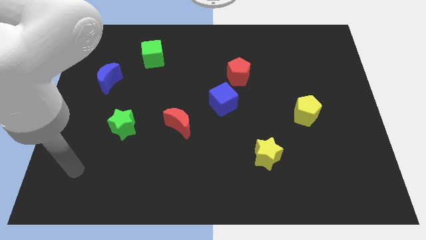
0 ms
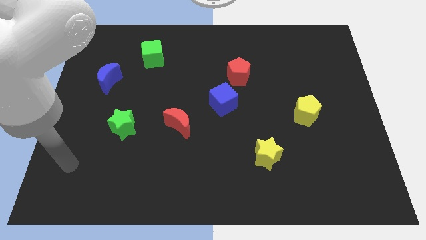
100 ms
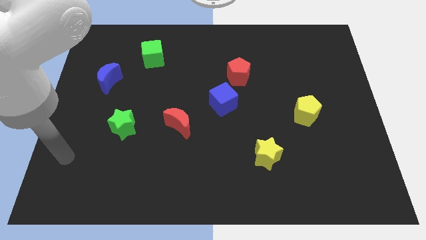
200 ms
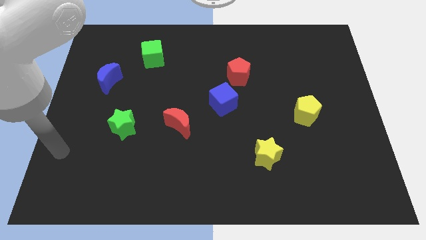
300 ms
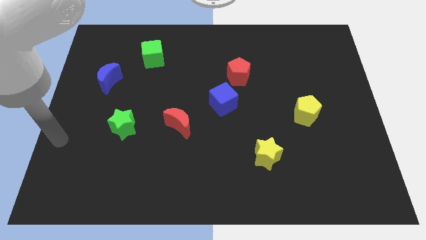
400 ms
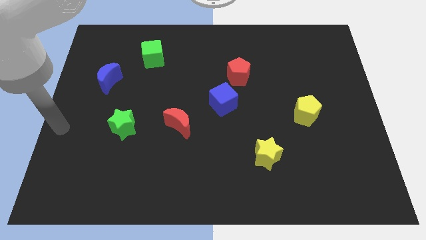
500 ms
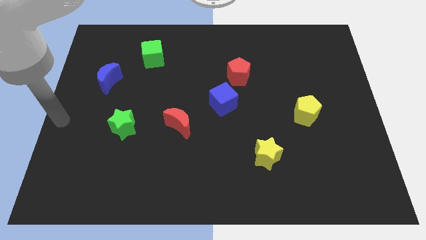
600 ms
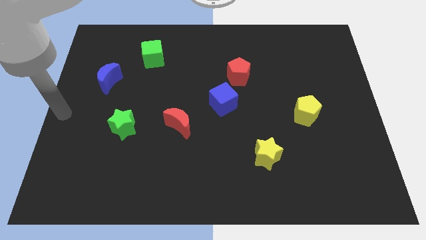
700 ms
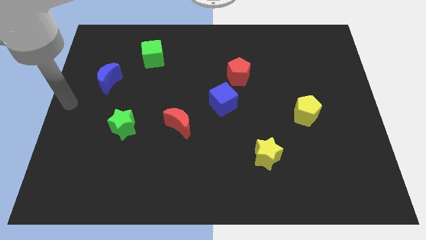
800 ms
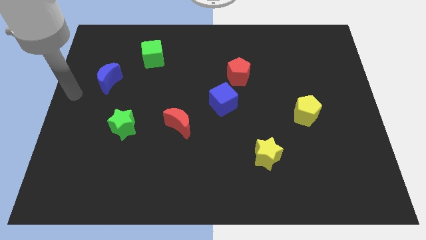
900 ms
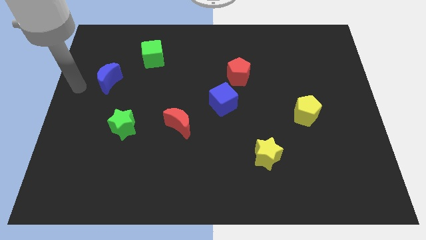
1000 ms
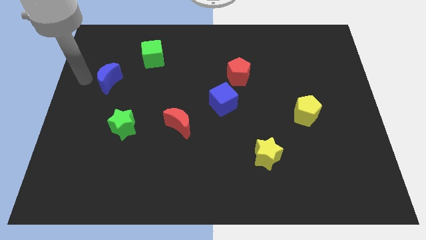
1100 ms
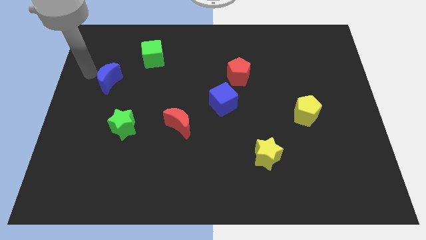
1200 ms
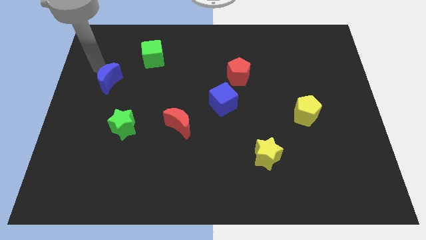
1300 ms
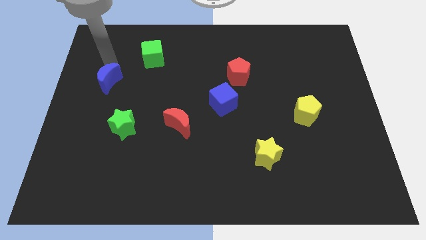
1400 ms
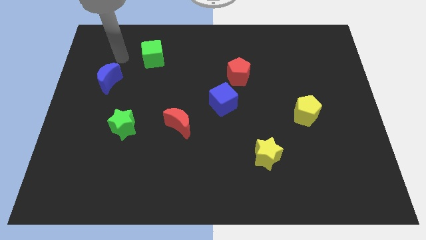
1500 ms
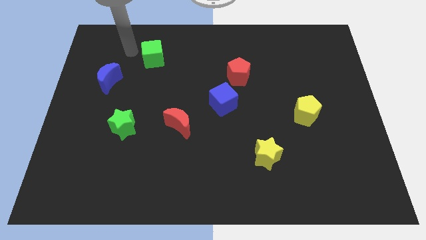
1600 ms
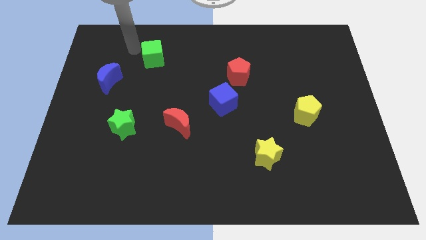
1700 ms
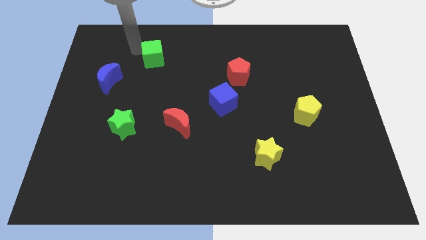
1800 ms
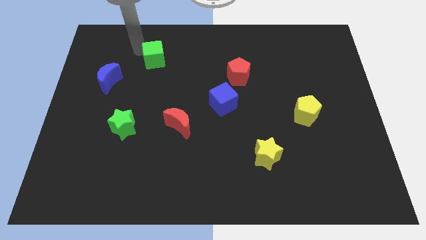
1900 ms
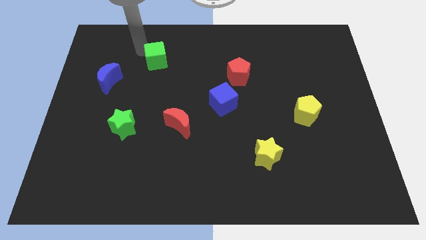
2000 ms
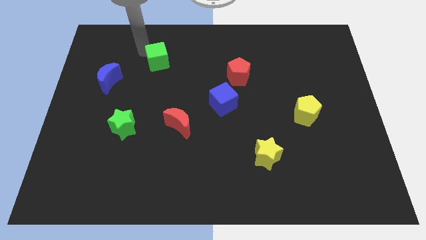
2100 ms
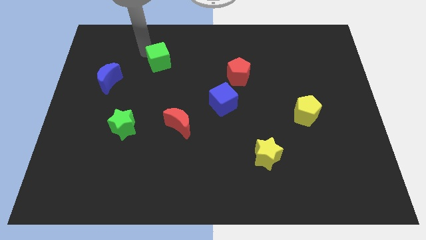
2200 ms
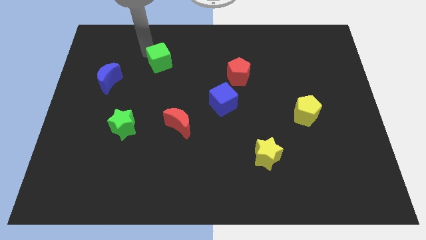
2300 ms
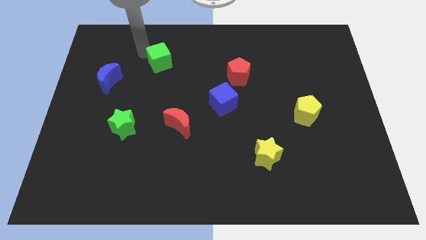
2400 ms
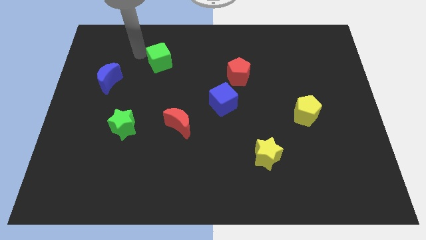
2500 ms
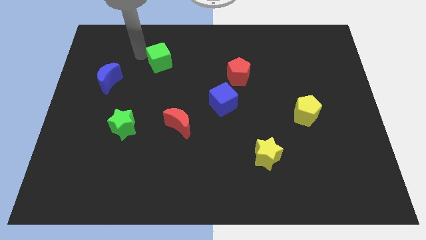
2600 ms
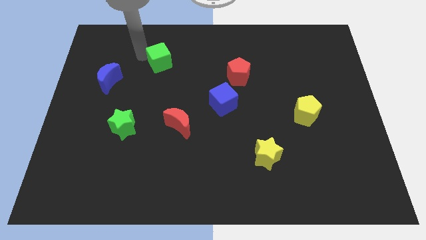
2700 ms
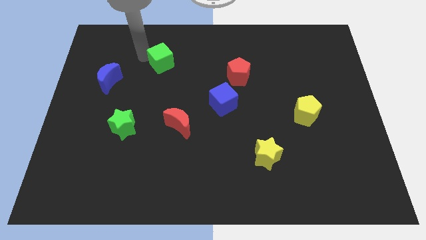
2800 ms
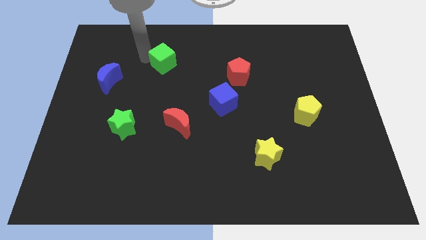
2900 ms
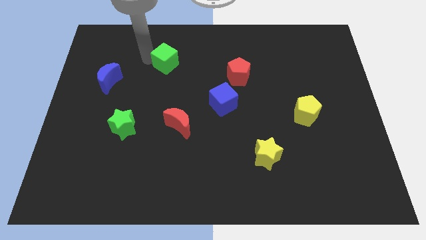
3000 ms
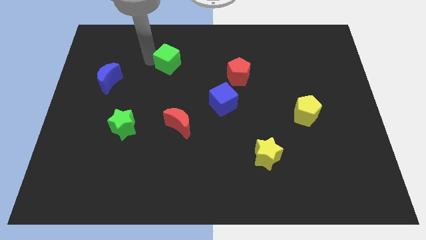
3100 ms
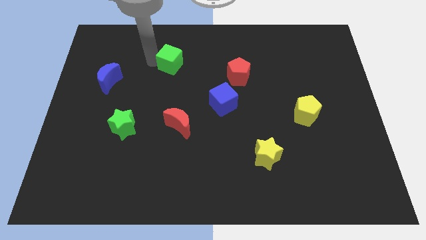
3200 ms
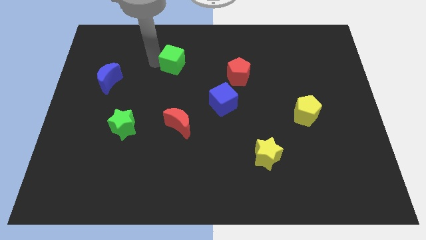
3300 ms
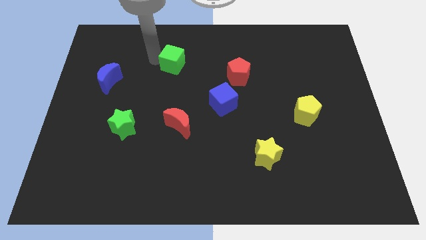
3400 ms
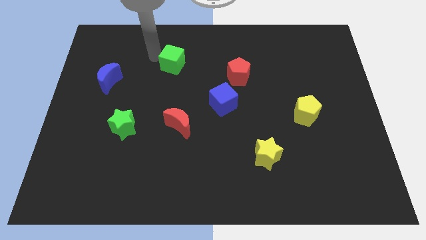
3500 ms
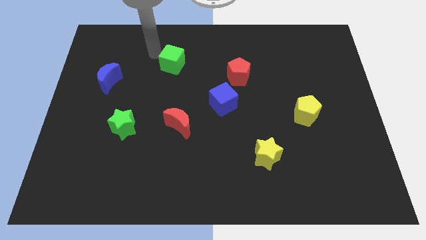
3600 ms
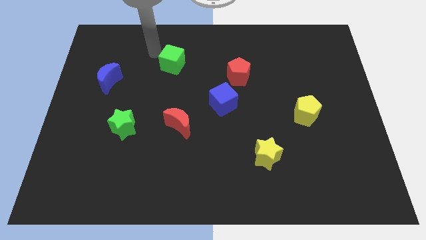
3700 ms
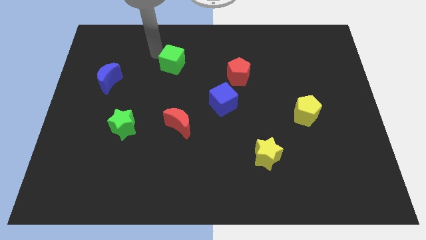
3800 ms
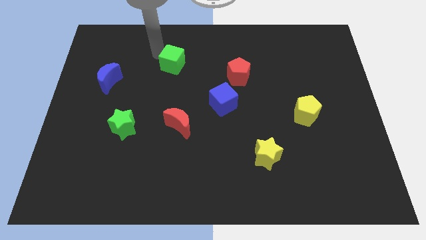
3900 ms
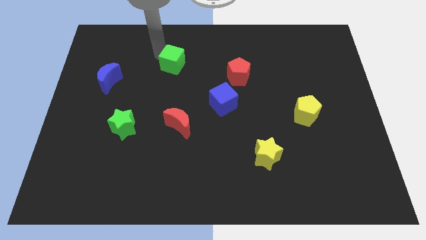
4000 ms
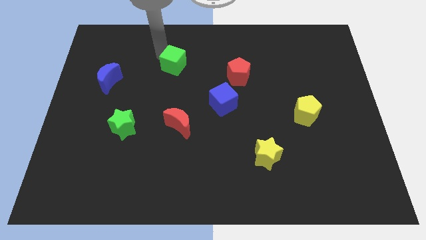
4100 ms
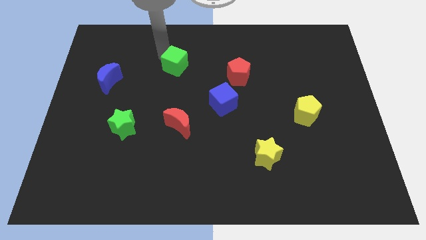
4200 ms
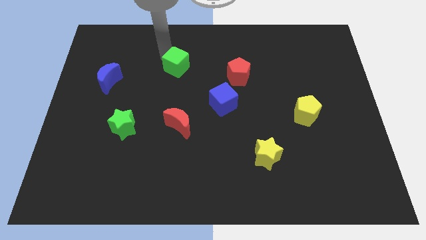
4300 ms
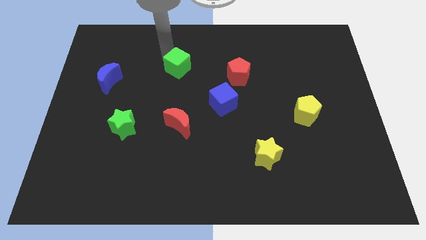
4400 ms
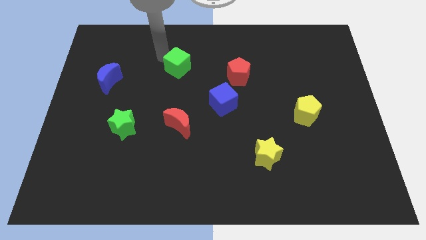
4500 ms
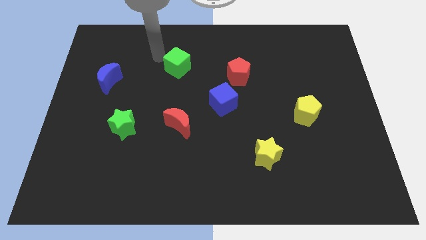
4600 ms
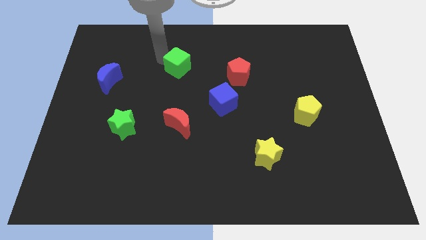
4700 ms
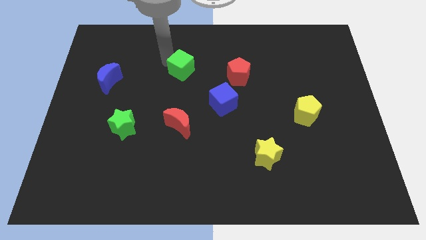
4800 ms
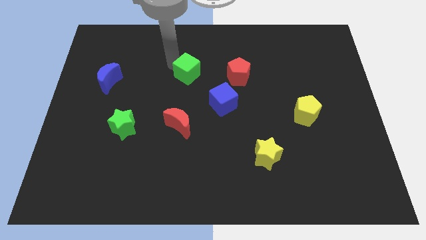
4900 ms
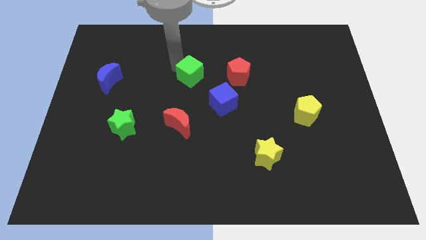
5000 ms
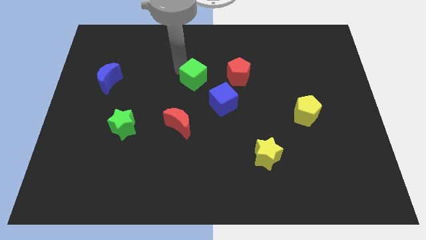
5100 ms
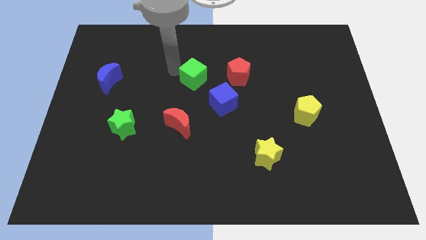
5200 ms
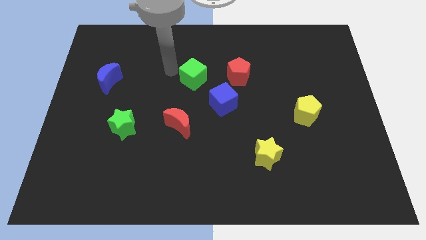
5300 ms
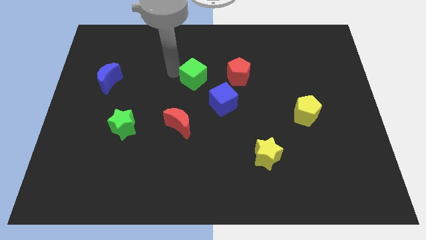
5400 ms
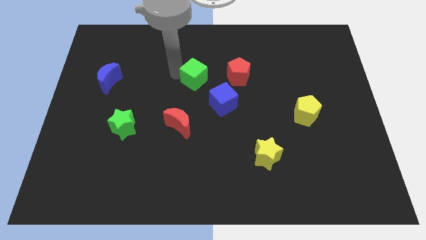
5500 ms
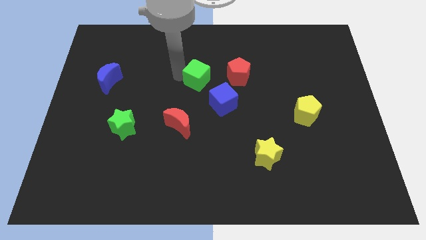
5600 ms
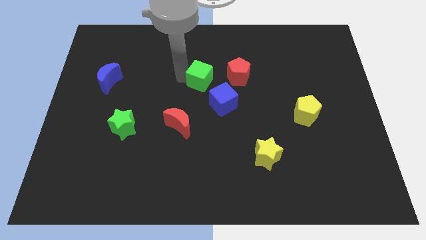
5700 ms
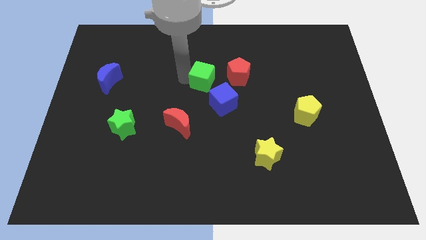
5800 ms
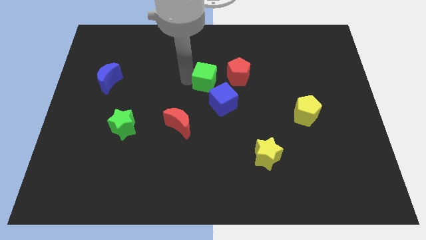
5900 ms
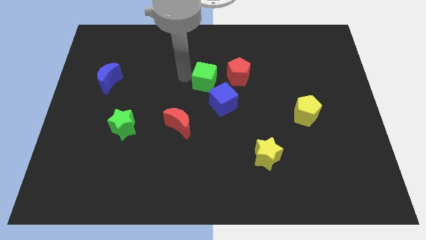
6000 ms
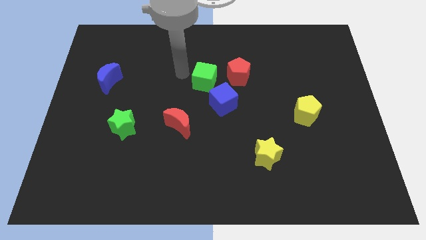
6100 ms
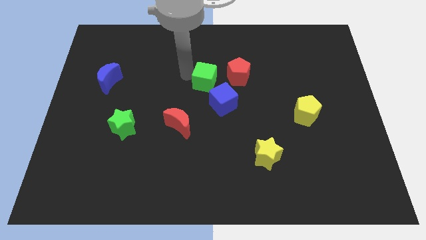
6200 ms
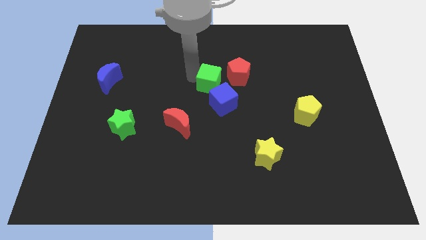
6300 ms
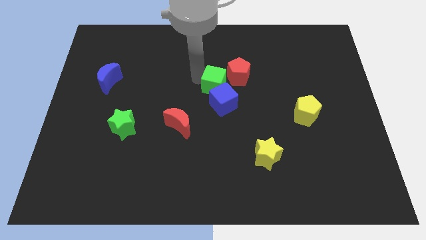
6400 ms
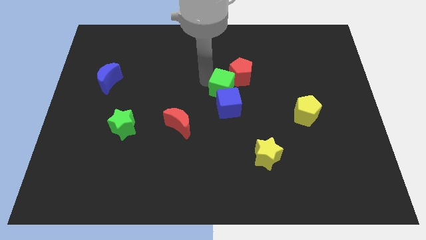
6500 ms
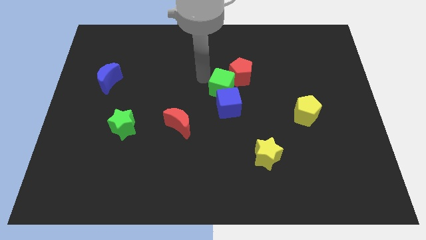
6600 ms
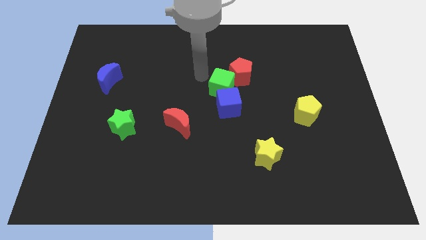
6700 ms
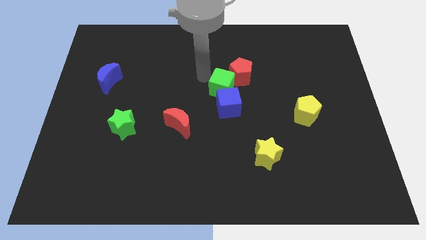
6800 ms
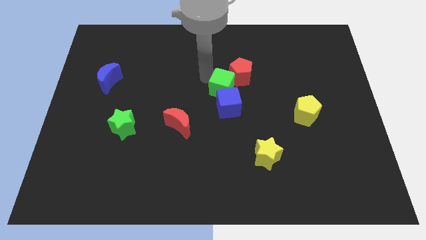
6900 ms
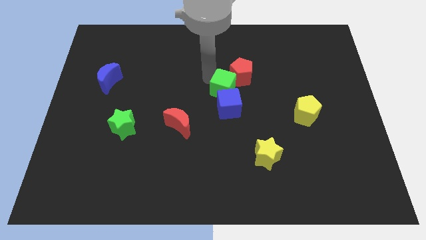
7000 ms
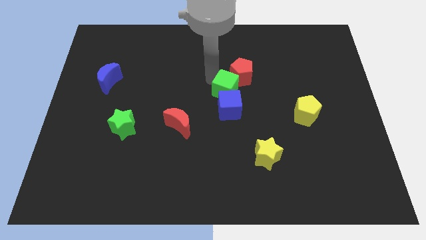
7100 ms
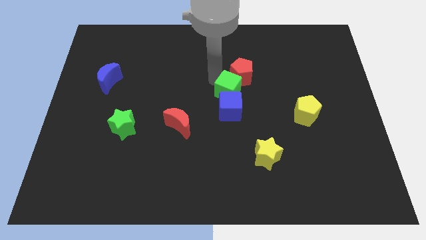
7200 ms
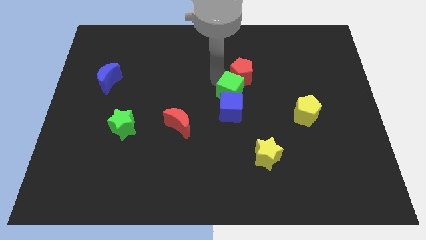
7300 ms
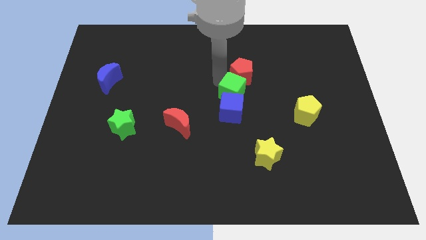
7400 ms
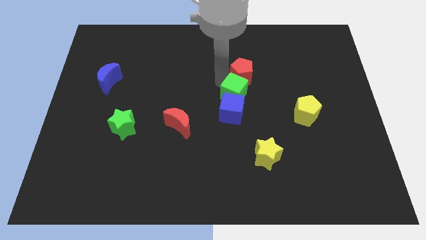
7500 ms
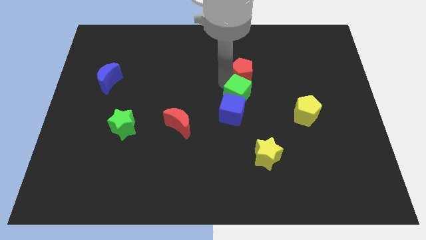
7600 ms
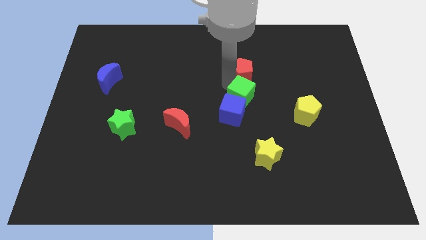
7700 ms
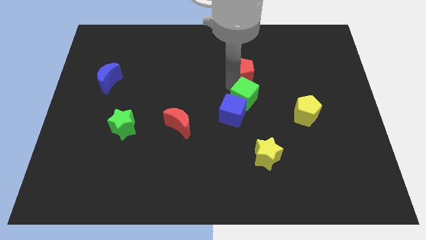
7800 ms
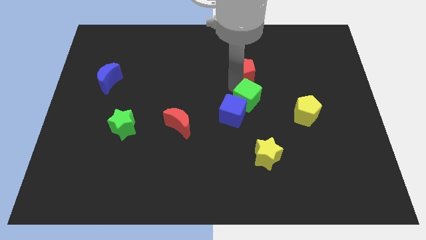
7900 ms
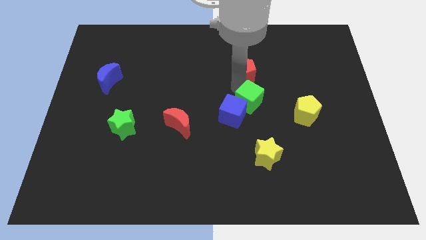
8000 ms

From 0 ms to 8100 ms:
slide the green cube to the top side of the yellow star
